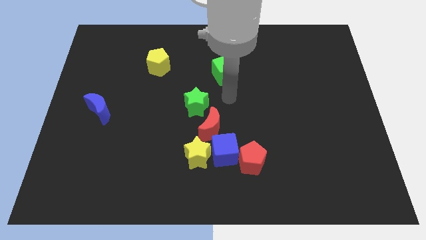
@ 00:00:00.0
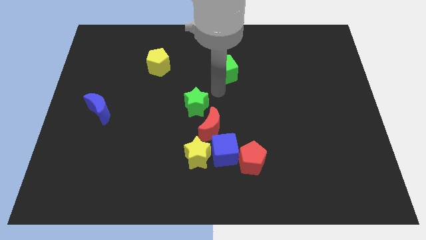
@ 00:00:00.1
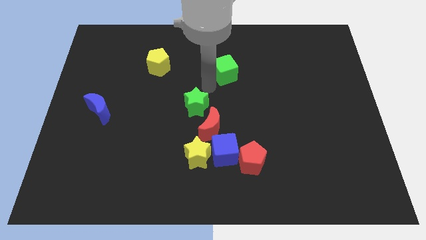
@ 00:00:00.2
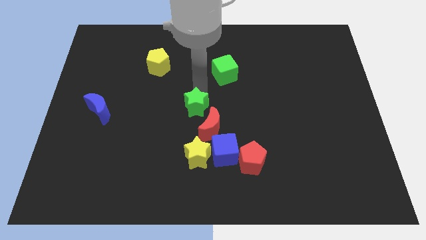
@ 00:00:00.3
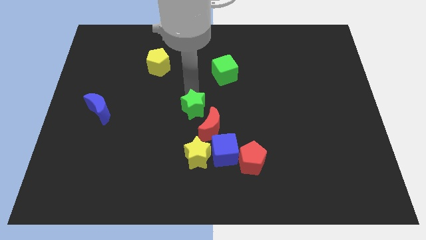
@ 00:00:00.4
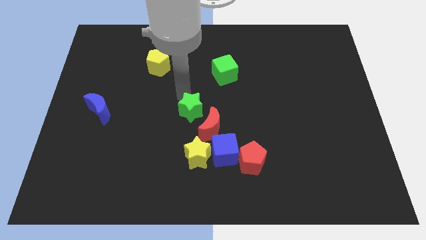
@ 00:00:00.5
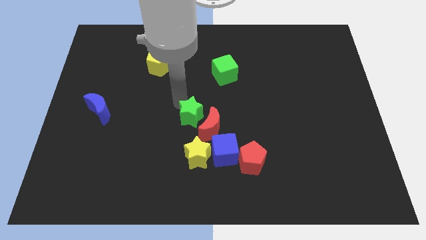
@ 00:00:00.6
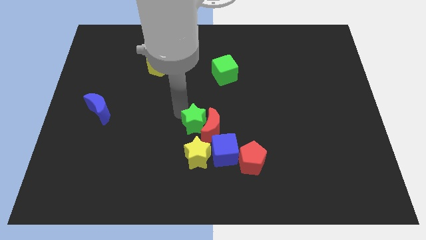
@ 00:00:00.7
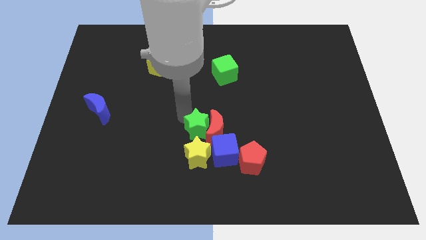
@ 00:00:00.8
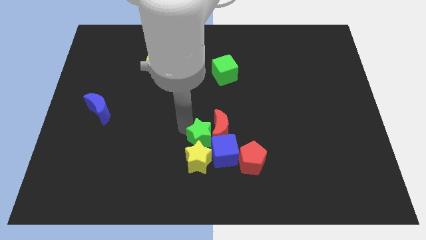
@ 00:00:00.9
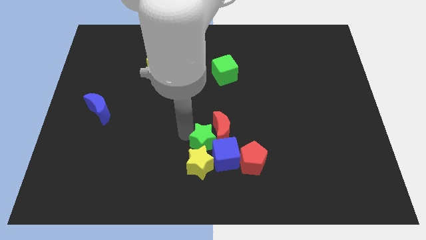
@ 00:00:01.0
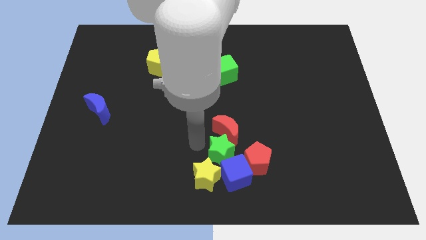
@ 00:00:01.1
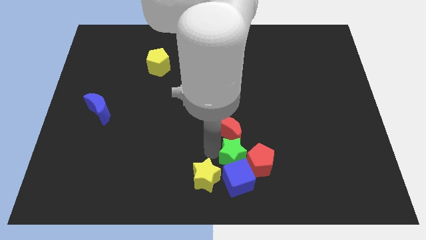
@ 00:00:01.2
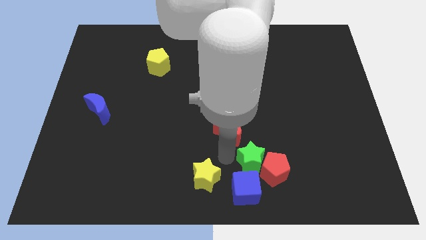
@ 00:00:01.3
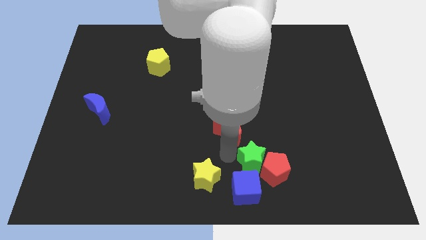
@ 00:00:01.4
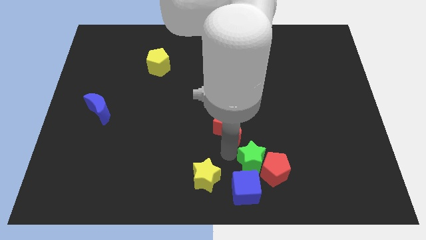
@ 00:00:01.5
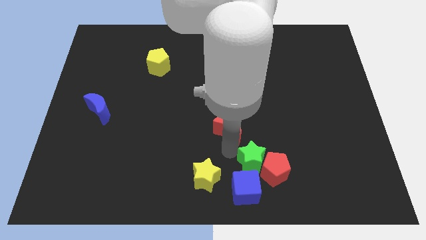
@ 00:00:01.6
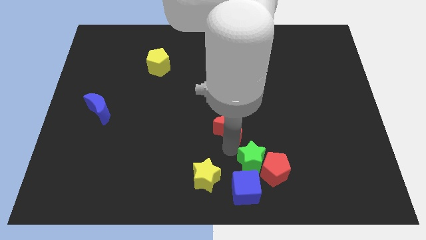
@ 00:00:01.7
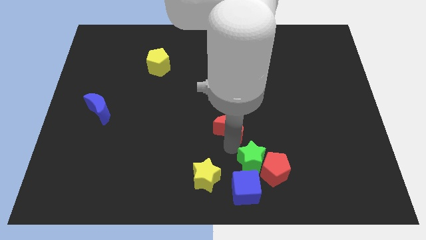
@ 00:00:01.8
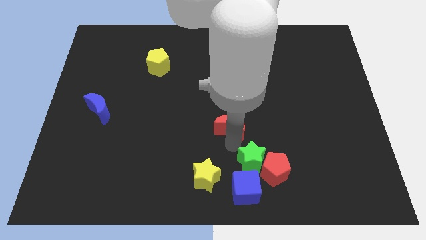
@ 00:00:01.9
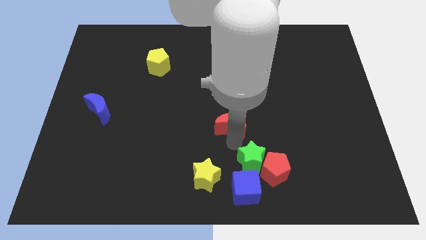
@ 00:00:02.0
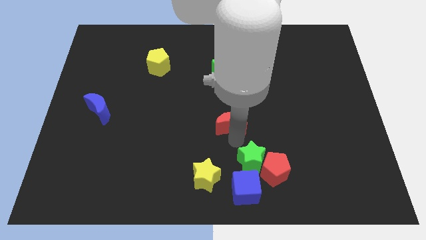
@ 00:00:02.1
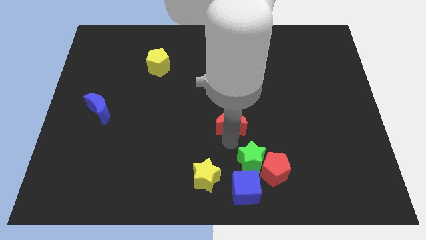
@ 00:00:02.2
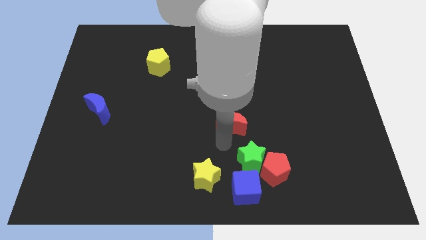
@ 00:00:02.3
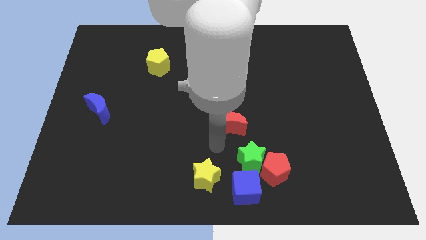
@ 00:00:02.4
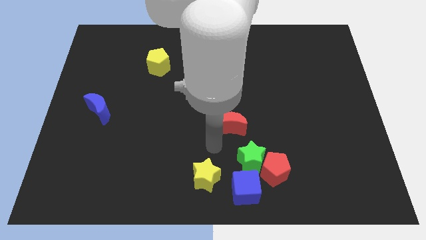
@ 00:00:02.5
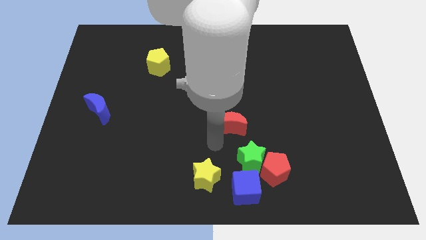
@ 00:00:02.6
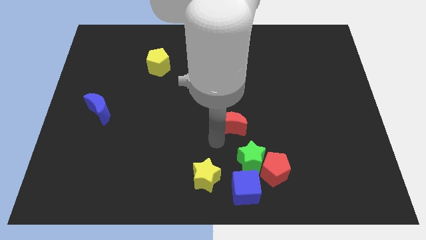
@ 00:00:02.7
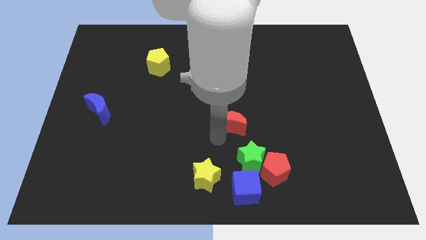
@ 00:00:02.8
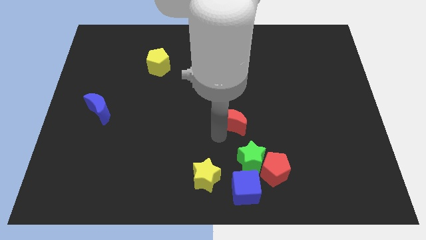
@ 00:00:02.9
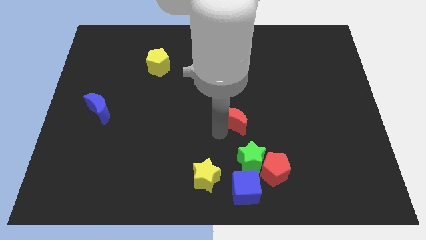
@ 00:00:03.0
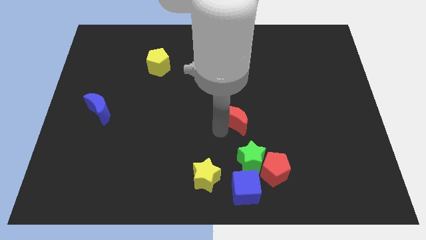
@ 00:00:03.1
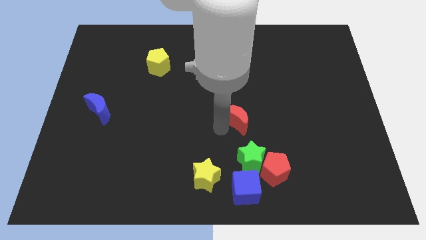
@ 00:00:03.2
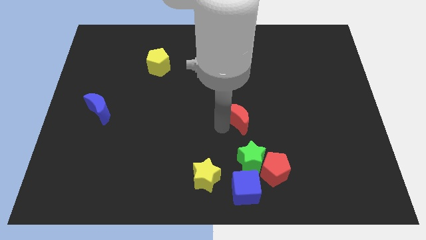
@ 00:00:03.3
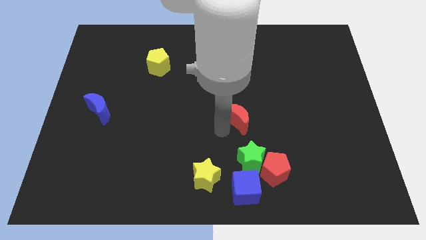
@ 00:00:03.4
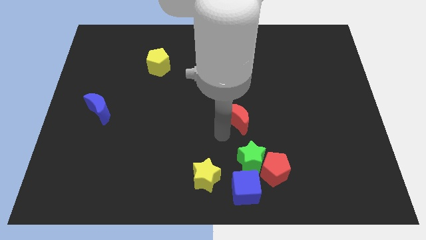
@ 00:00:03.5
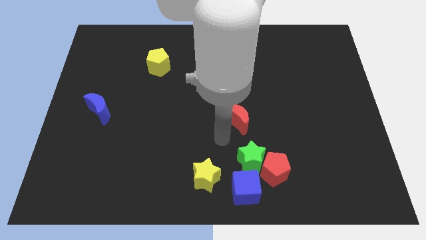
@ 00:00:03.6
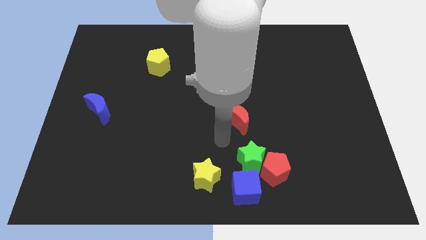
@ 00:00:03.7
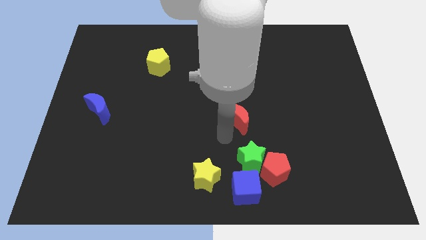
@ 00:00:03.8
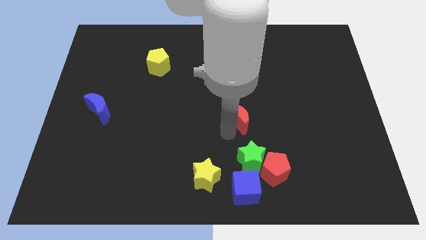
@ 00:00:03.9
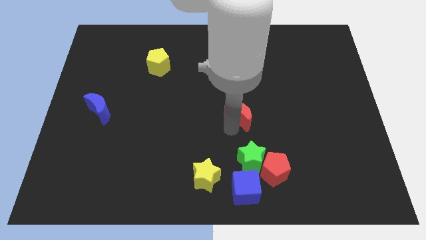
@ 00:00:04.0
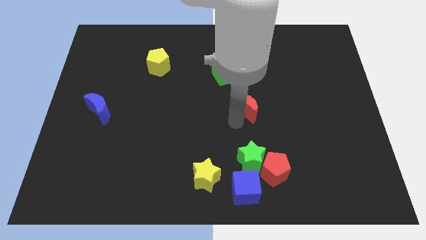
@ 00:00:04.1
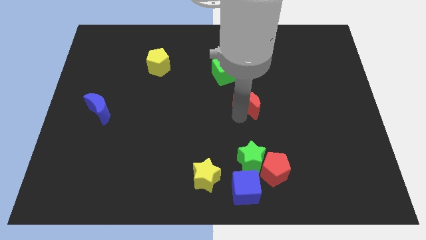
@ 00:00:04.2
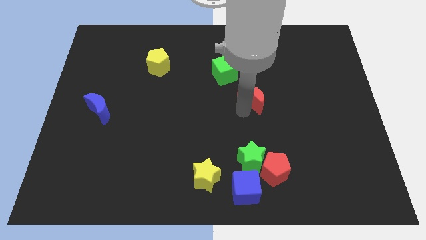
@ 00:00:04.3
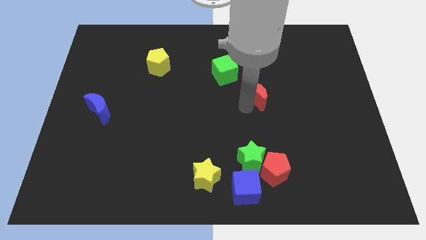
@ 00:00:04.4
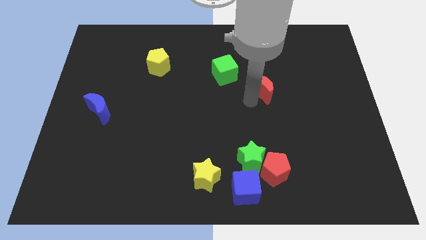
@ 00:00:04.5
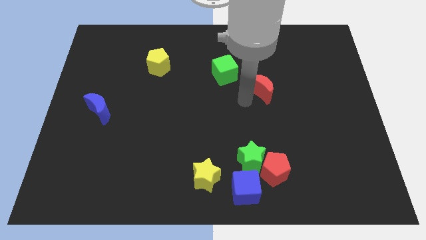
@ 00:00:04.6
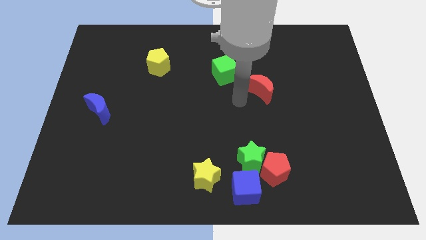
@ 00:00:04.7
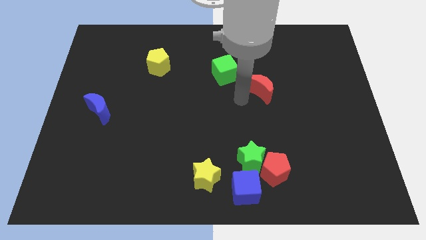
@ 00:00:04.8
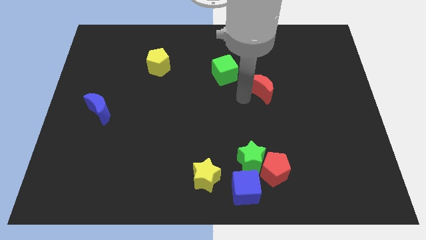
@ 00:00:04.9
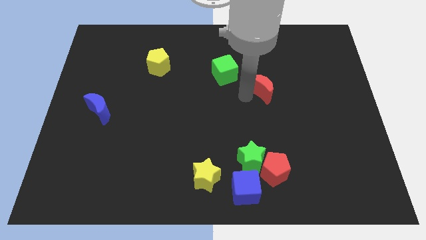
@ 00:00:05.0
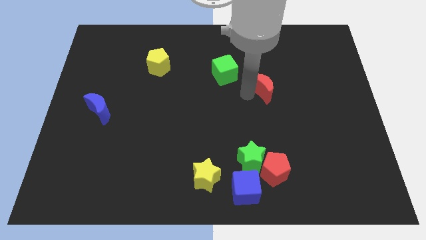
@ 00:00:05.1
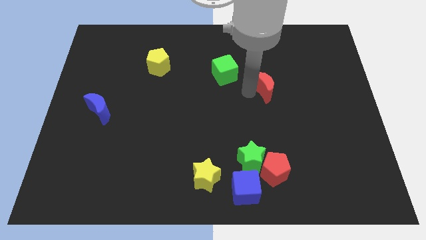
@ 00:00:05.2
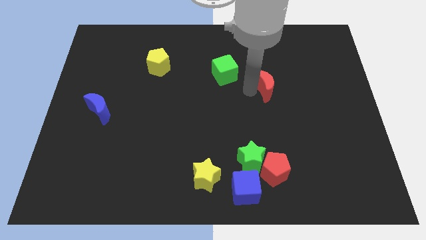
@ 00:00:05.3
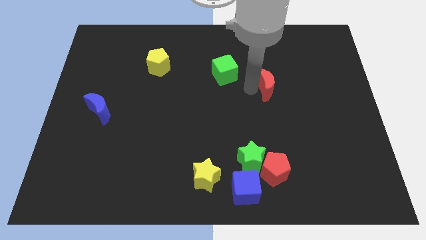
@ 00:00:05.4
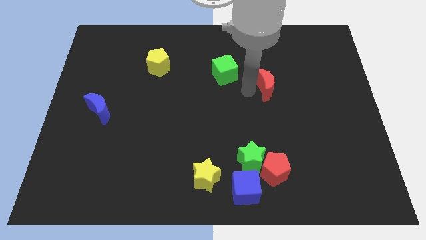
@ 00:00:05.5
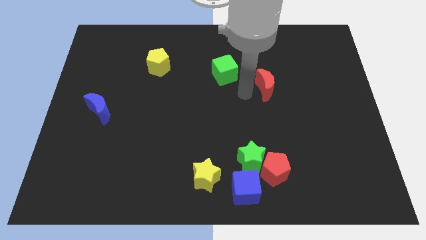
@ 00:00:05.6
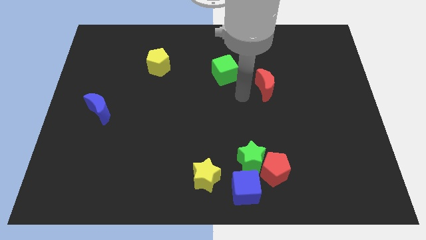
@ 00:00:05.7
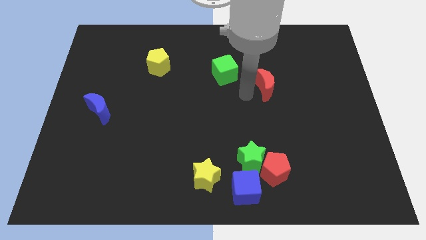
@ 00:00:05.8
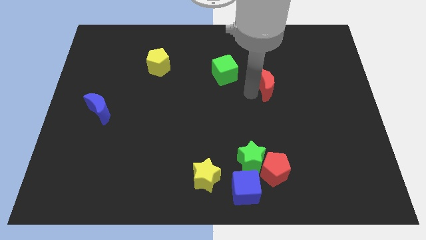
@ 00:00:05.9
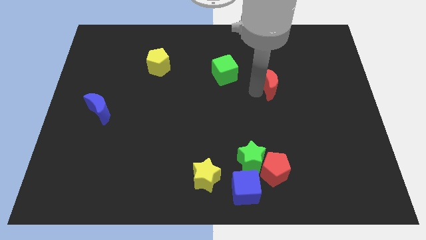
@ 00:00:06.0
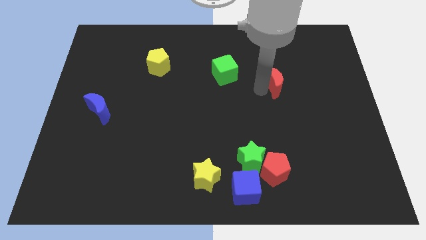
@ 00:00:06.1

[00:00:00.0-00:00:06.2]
slide the red moon upwards and to the right diagonally

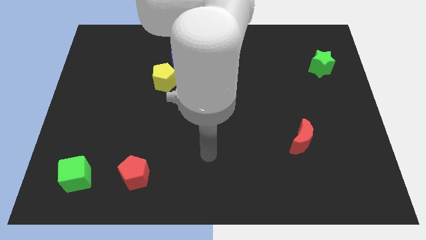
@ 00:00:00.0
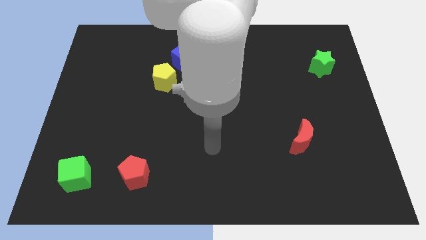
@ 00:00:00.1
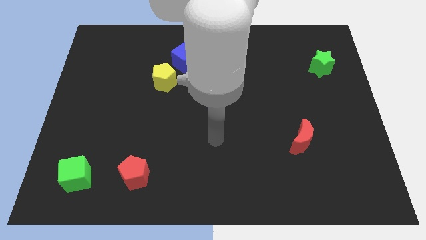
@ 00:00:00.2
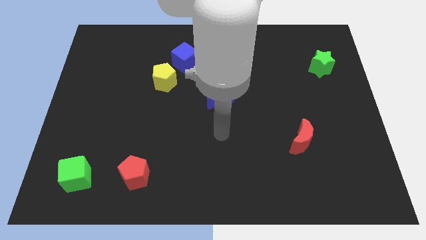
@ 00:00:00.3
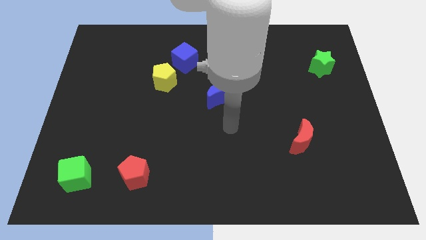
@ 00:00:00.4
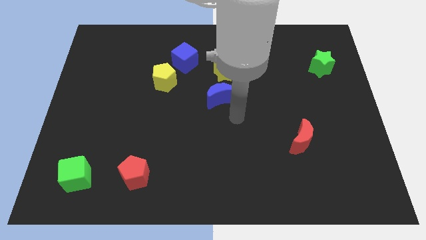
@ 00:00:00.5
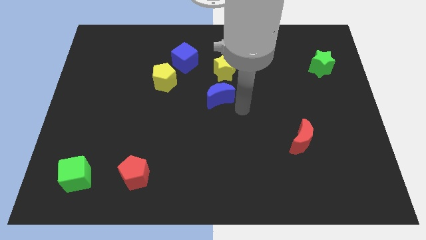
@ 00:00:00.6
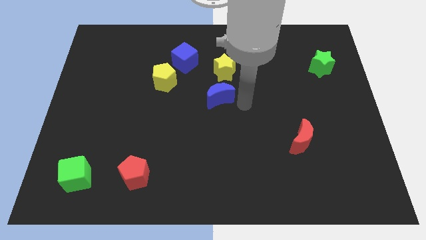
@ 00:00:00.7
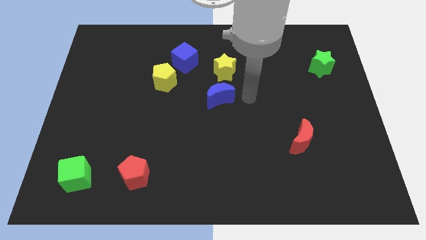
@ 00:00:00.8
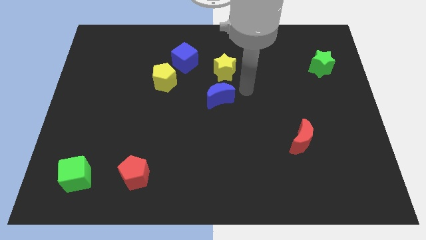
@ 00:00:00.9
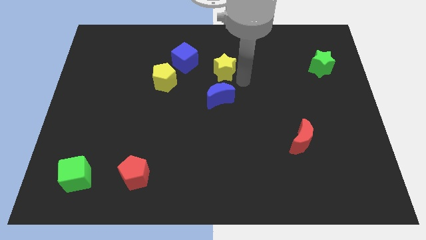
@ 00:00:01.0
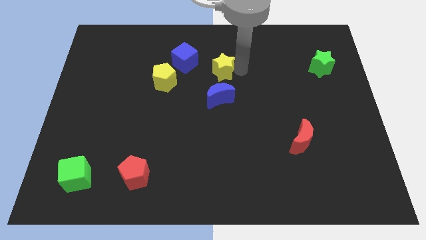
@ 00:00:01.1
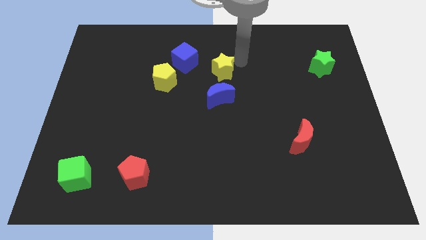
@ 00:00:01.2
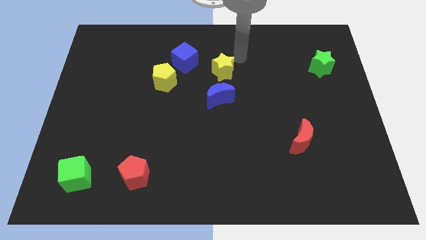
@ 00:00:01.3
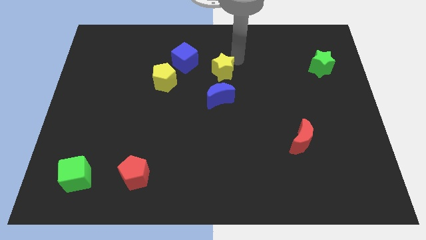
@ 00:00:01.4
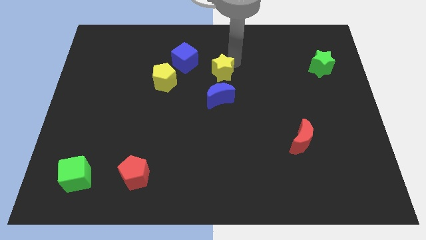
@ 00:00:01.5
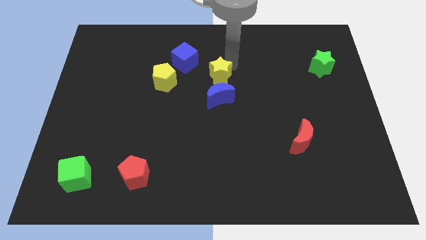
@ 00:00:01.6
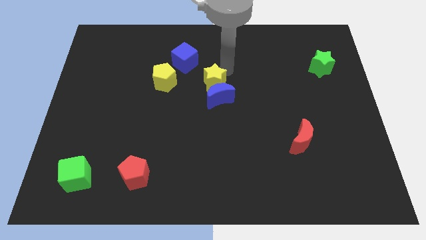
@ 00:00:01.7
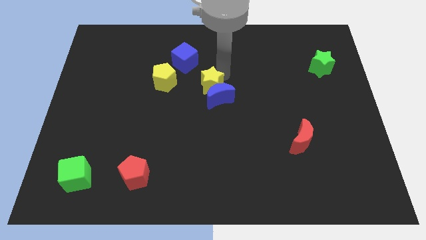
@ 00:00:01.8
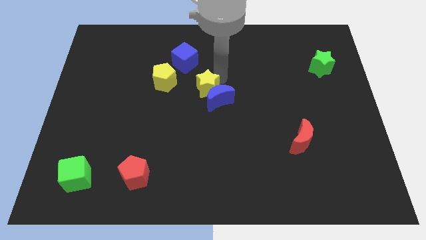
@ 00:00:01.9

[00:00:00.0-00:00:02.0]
move the yellow star a little diagonally downwards and to the left
